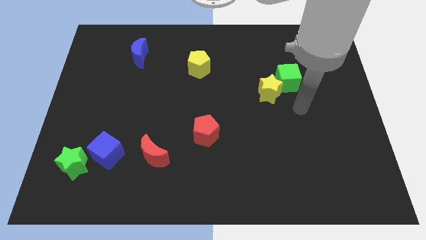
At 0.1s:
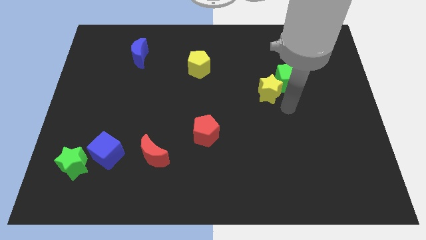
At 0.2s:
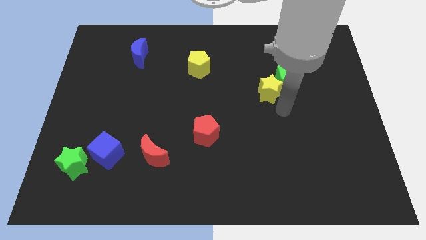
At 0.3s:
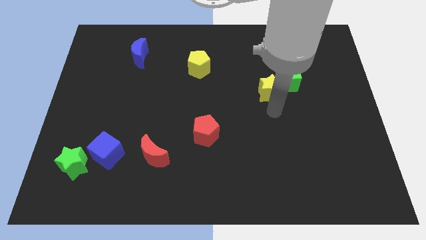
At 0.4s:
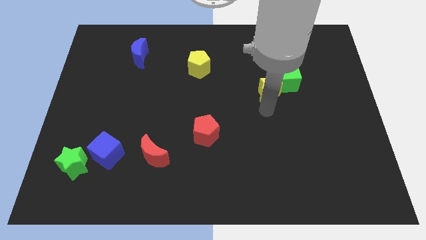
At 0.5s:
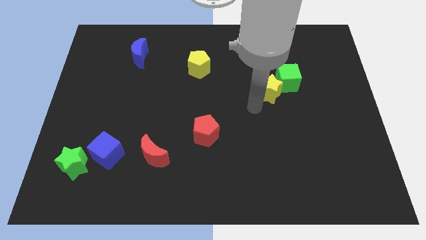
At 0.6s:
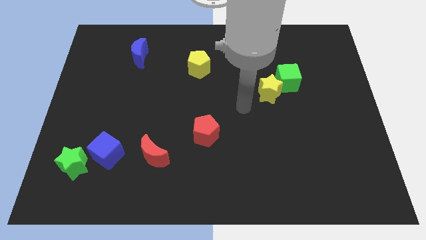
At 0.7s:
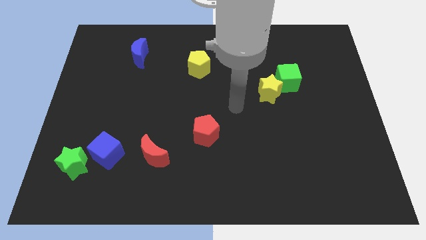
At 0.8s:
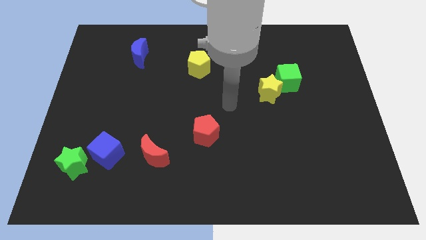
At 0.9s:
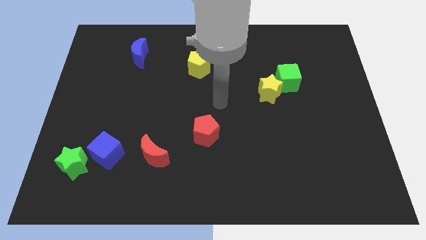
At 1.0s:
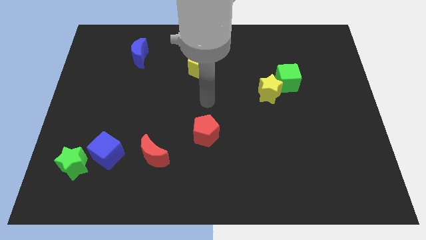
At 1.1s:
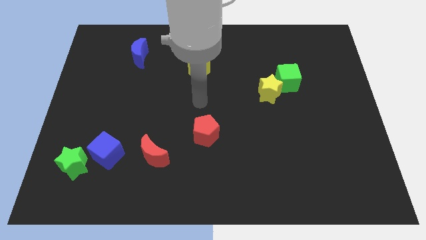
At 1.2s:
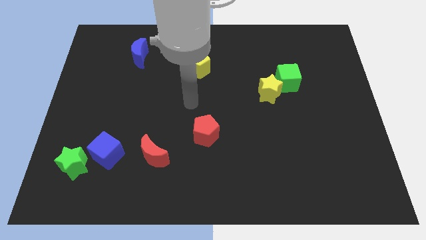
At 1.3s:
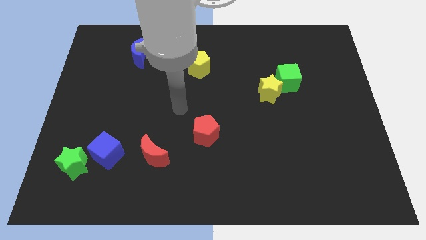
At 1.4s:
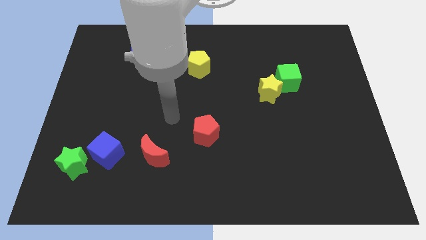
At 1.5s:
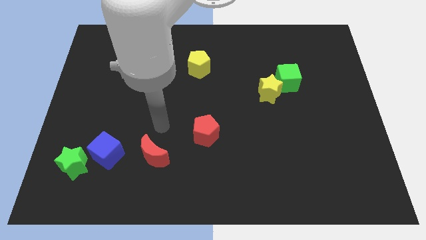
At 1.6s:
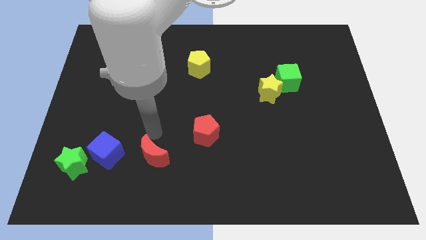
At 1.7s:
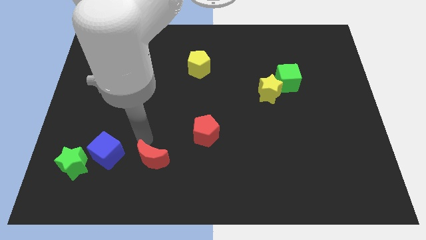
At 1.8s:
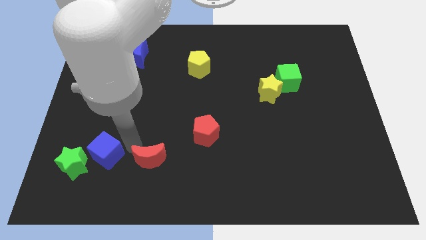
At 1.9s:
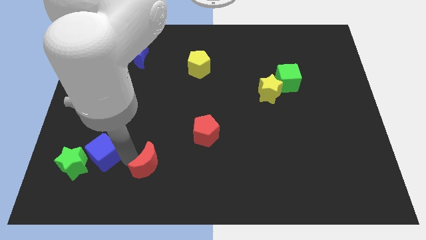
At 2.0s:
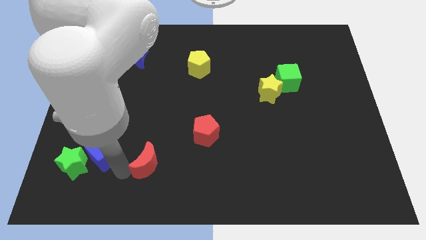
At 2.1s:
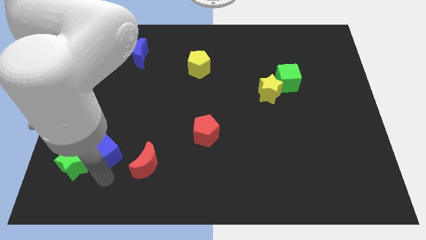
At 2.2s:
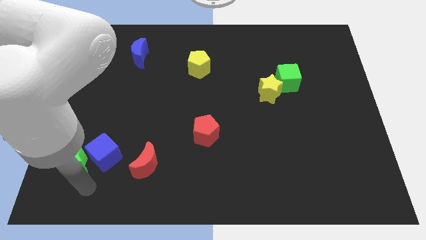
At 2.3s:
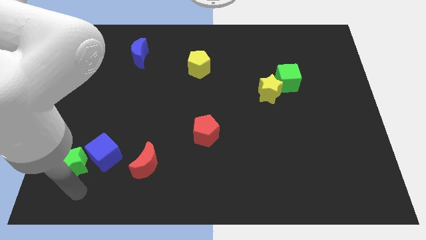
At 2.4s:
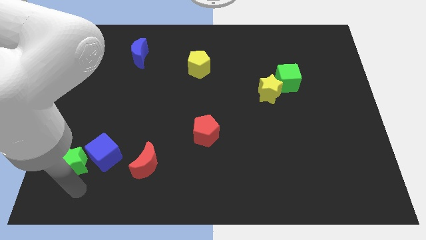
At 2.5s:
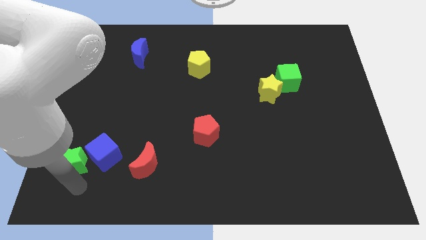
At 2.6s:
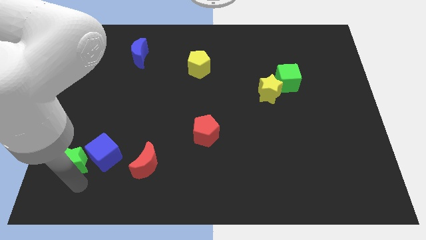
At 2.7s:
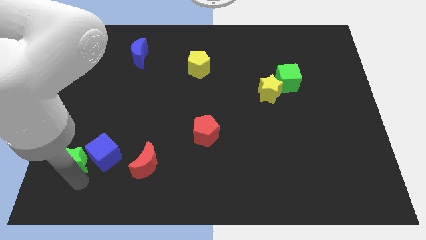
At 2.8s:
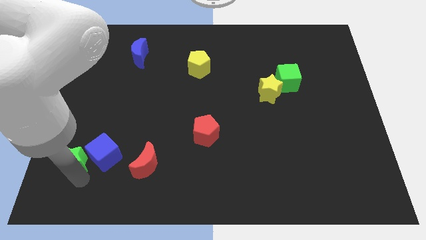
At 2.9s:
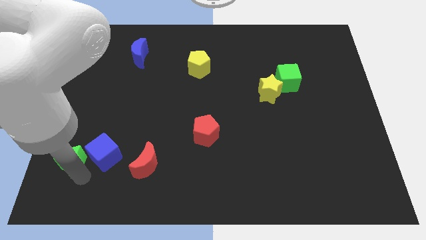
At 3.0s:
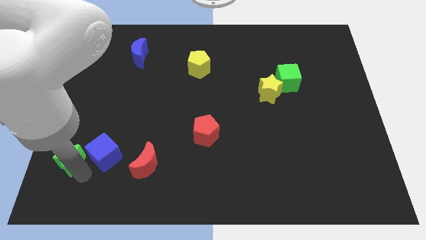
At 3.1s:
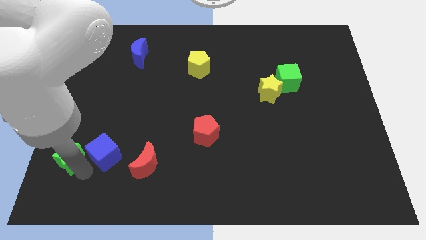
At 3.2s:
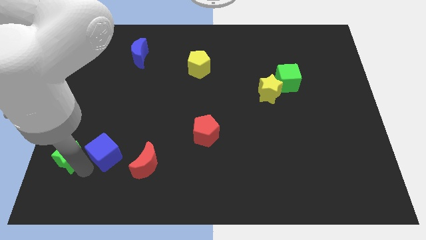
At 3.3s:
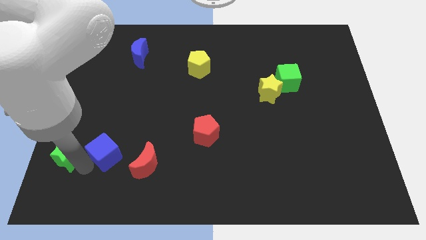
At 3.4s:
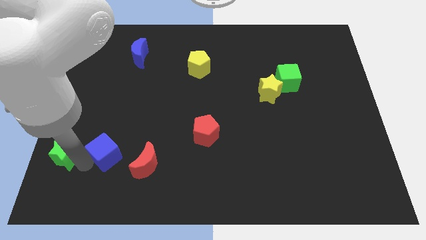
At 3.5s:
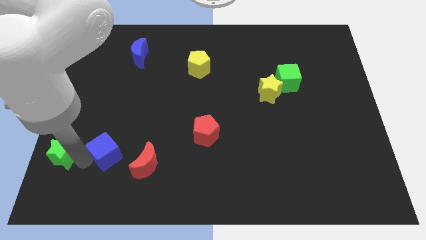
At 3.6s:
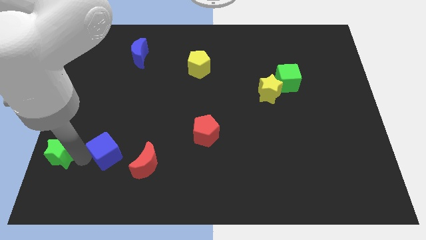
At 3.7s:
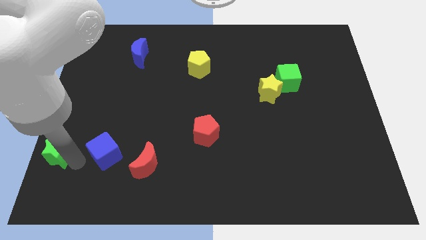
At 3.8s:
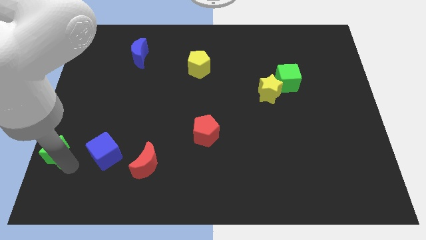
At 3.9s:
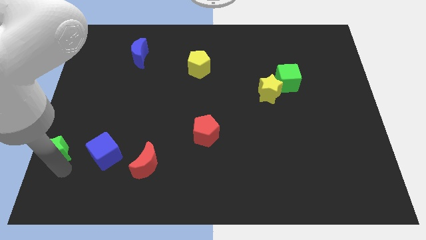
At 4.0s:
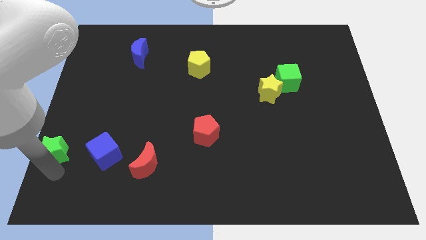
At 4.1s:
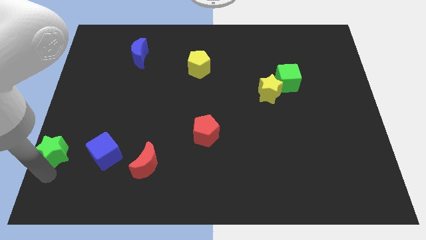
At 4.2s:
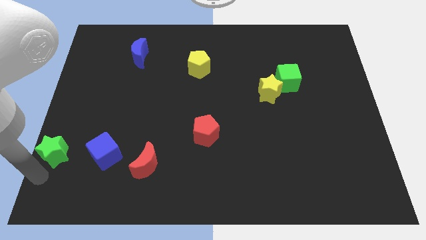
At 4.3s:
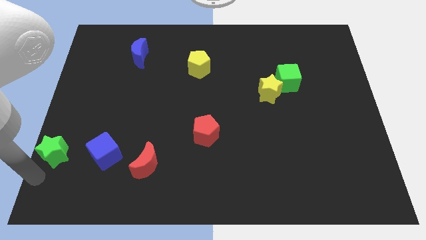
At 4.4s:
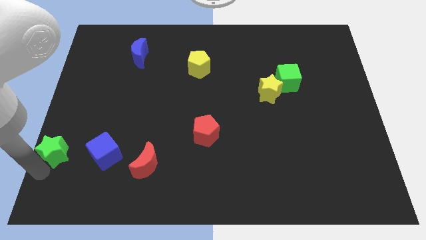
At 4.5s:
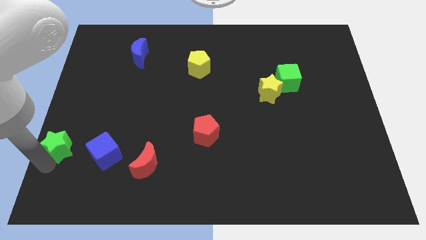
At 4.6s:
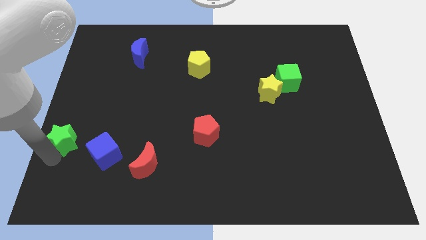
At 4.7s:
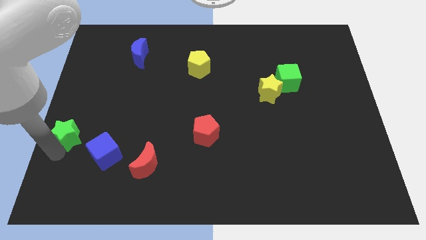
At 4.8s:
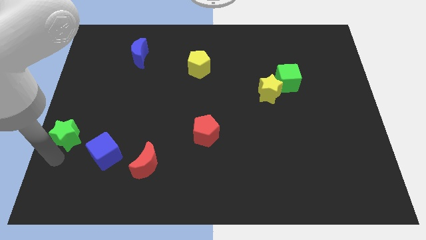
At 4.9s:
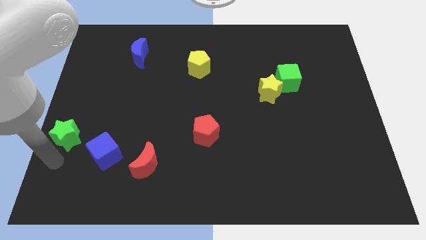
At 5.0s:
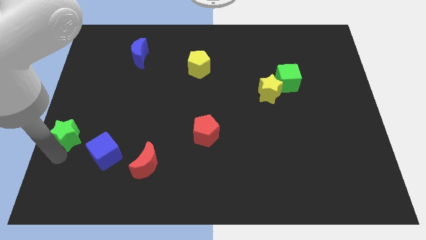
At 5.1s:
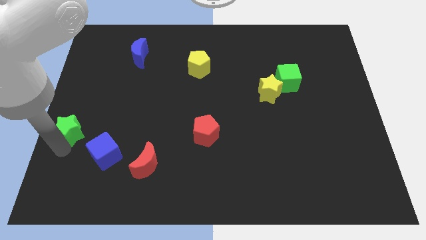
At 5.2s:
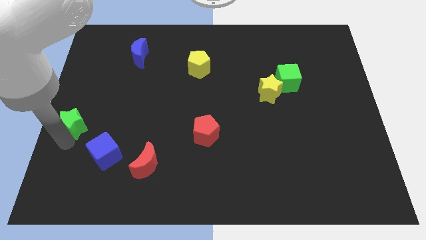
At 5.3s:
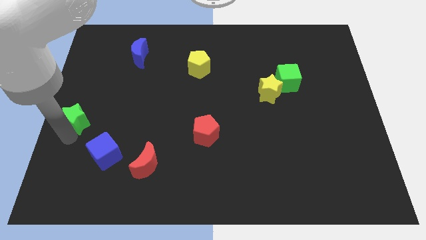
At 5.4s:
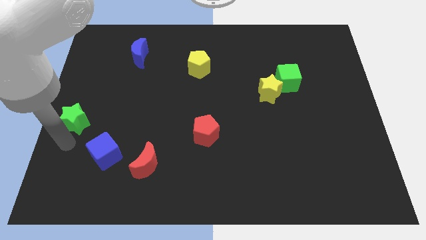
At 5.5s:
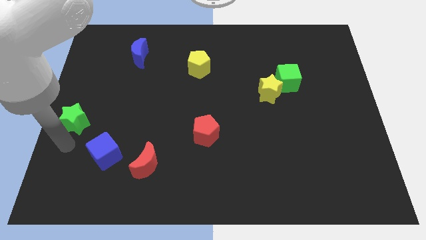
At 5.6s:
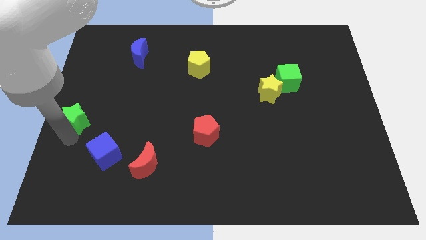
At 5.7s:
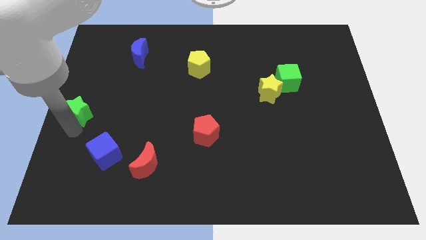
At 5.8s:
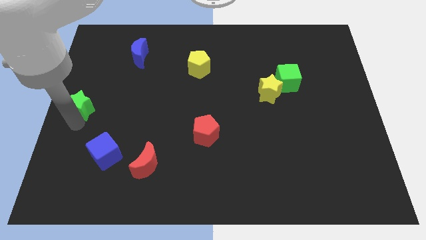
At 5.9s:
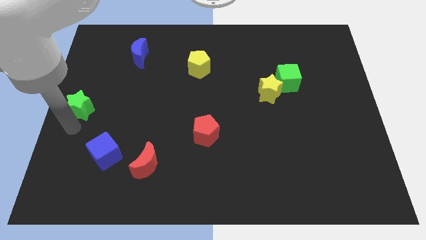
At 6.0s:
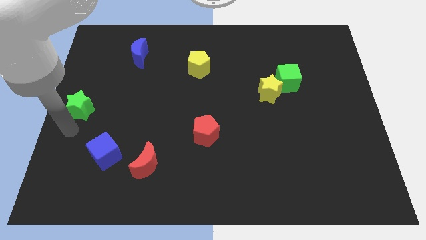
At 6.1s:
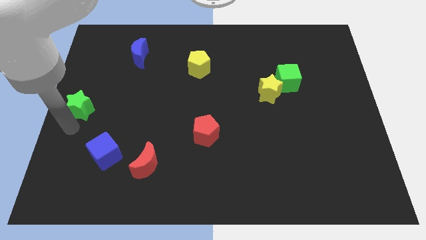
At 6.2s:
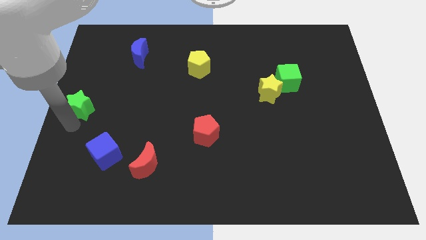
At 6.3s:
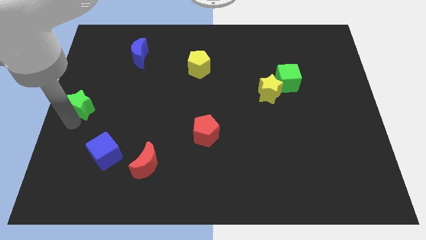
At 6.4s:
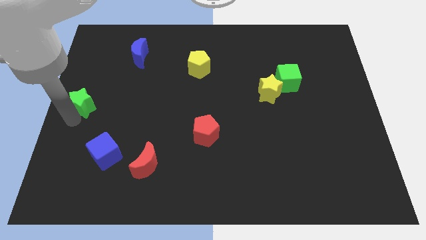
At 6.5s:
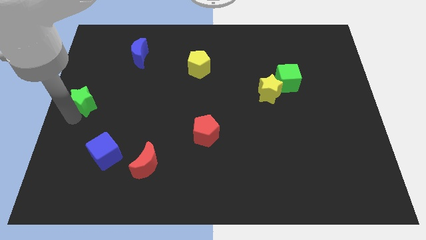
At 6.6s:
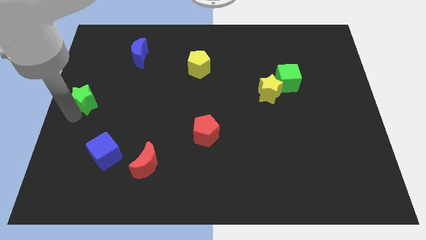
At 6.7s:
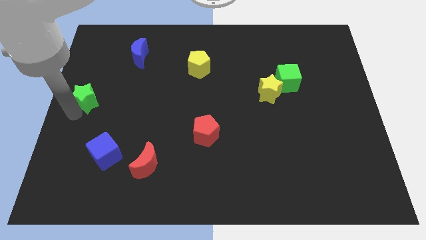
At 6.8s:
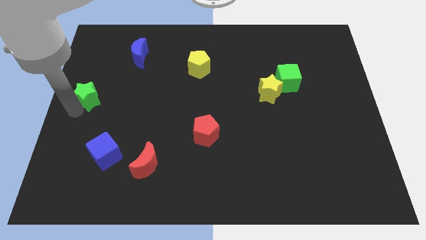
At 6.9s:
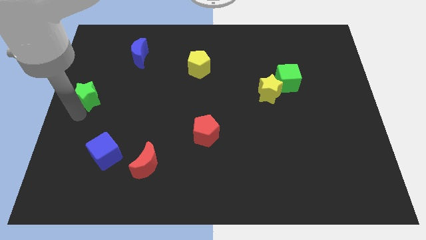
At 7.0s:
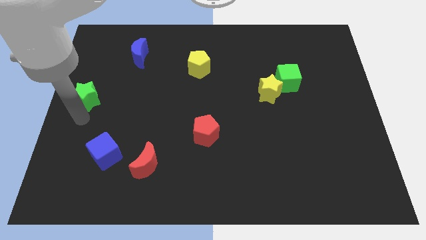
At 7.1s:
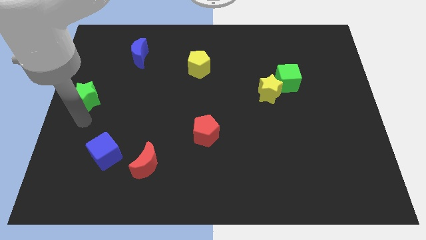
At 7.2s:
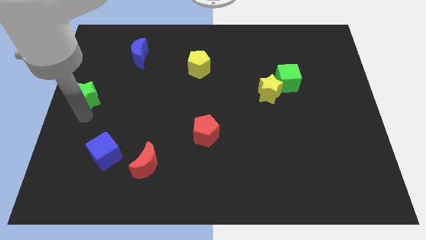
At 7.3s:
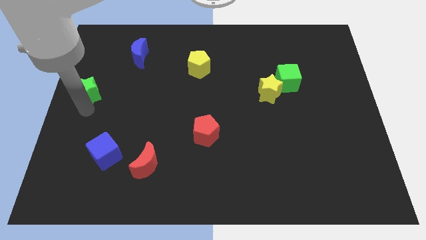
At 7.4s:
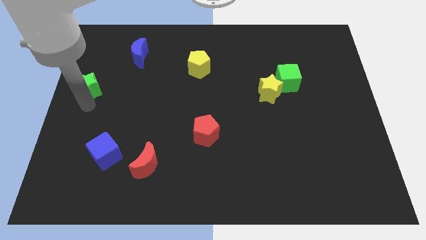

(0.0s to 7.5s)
push the green star up

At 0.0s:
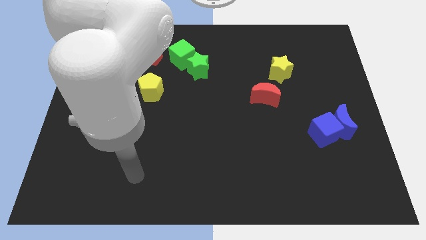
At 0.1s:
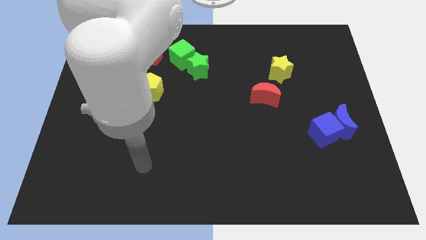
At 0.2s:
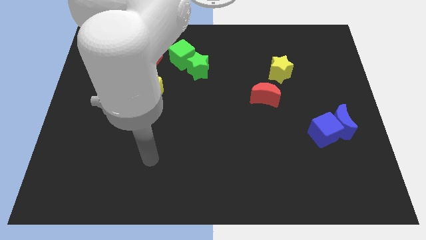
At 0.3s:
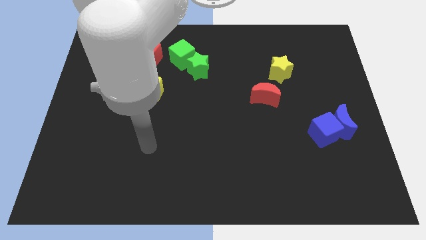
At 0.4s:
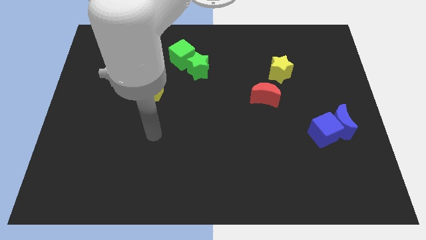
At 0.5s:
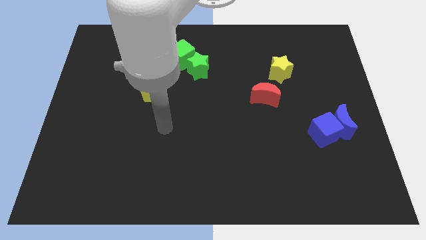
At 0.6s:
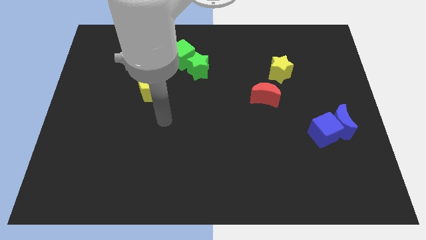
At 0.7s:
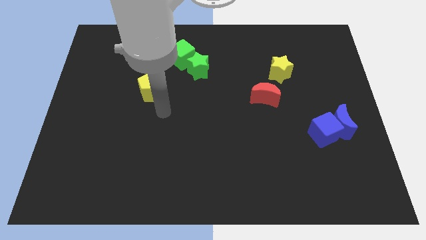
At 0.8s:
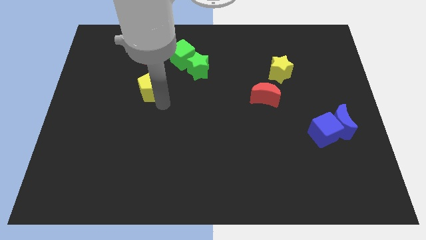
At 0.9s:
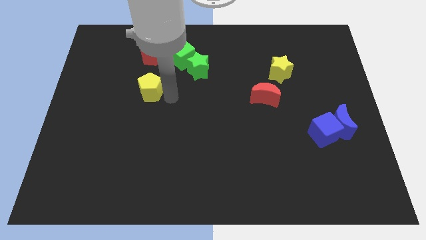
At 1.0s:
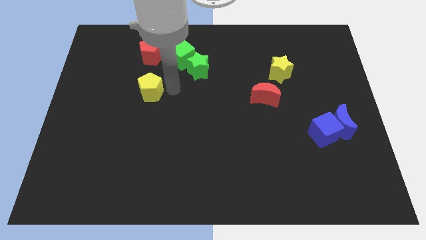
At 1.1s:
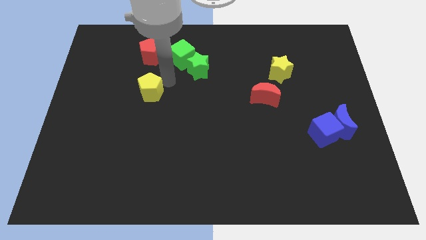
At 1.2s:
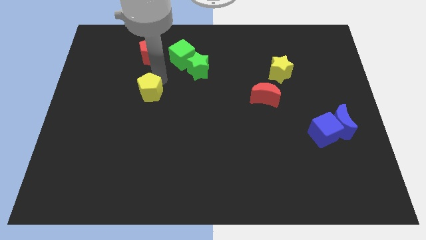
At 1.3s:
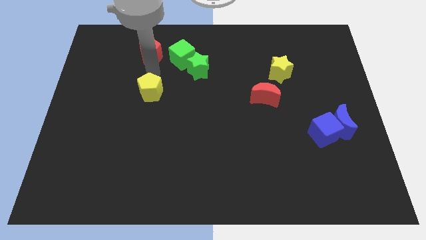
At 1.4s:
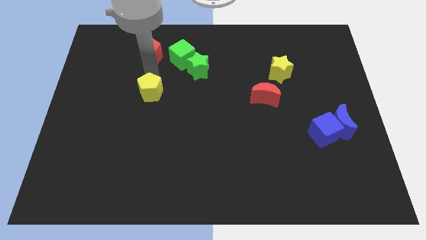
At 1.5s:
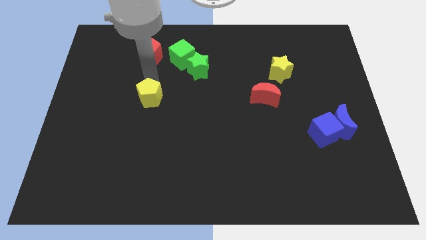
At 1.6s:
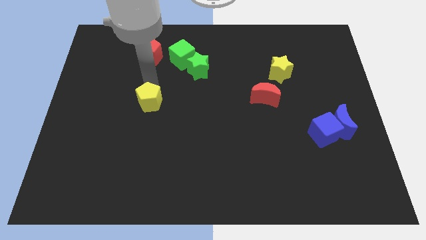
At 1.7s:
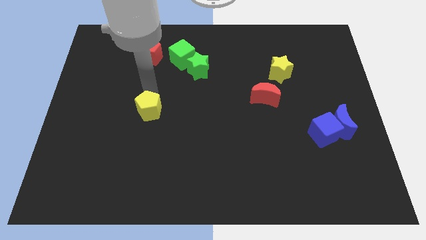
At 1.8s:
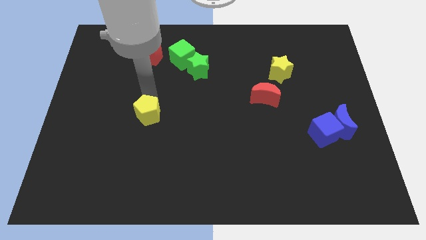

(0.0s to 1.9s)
move the yellow pentagon downwards a bit
